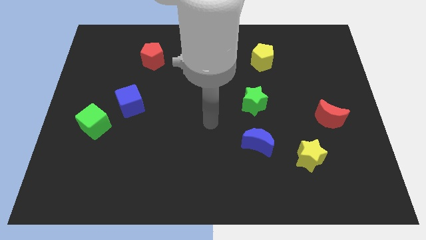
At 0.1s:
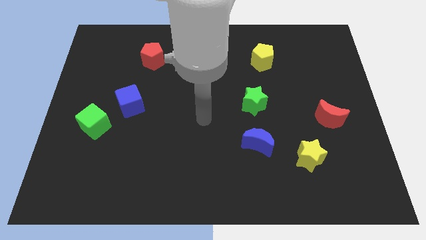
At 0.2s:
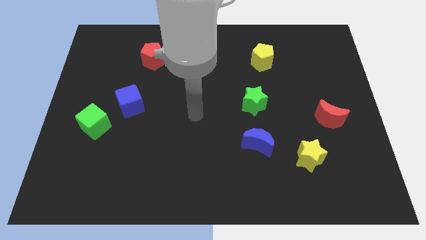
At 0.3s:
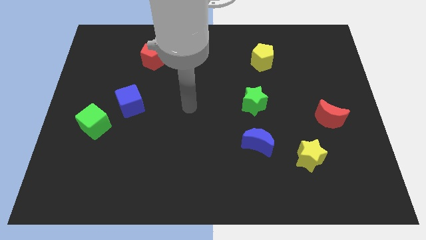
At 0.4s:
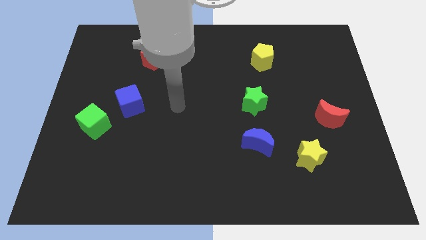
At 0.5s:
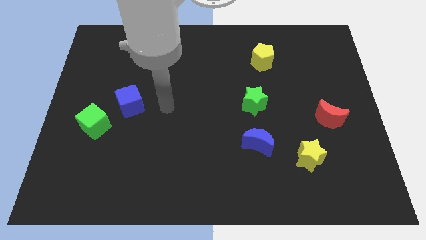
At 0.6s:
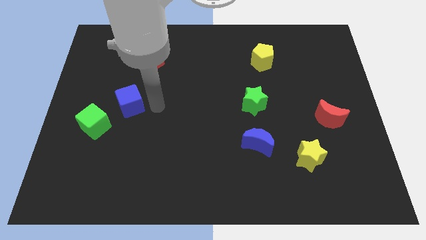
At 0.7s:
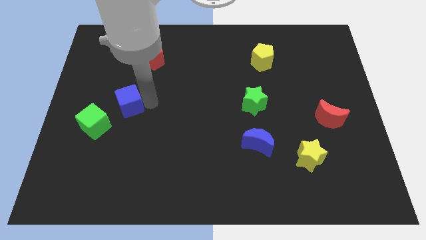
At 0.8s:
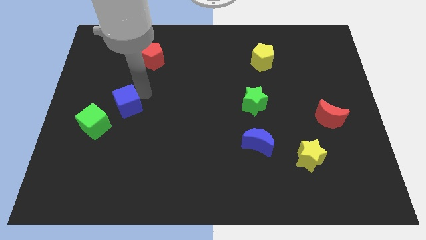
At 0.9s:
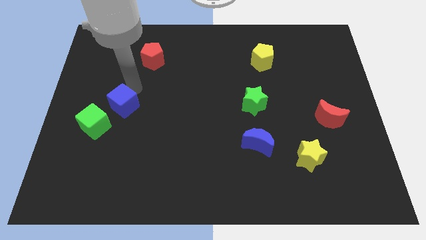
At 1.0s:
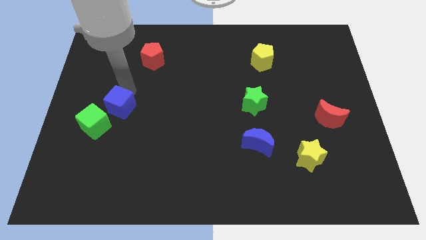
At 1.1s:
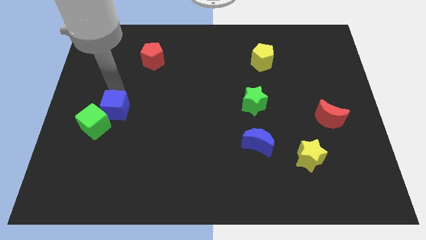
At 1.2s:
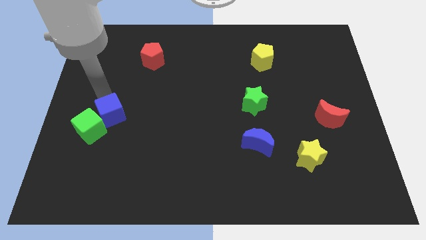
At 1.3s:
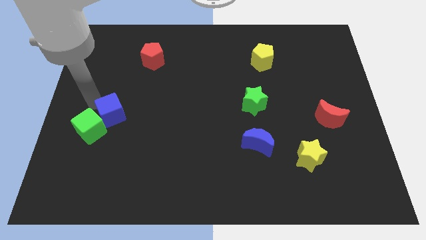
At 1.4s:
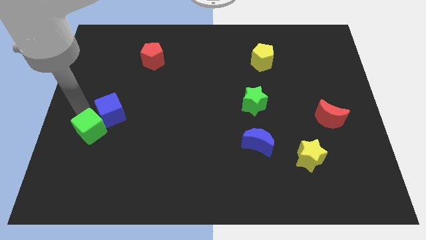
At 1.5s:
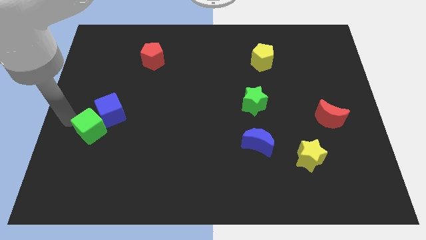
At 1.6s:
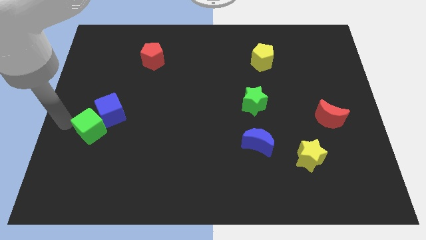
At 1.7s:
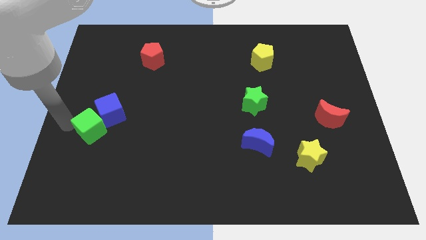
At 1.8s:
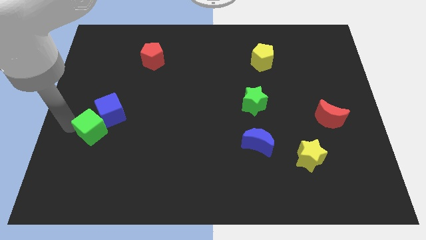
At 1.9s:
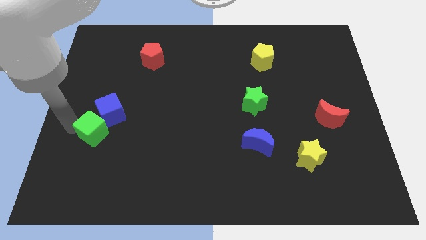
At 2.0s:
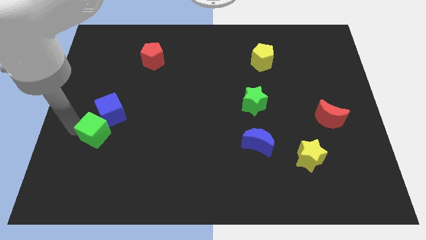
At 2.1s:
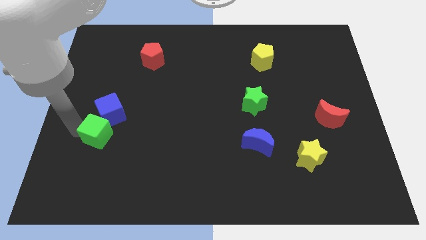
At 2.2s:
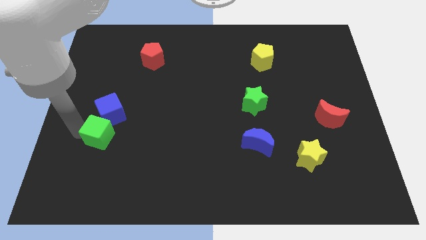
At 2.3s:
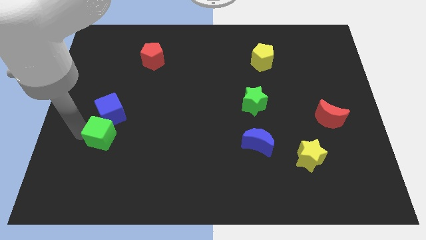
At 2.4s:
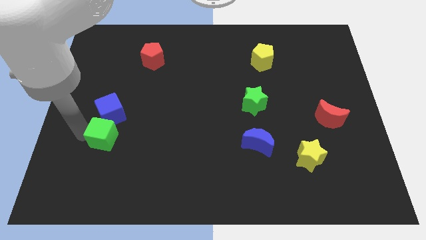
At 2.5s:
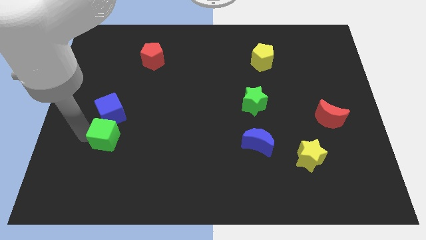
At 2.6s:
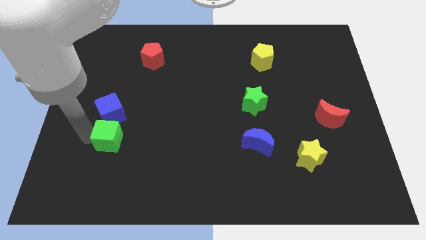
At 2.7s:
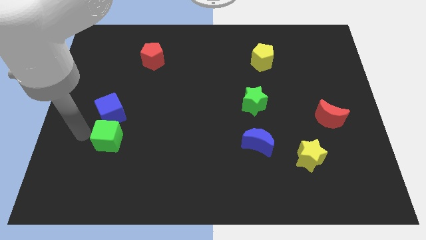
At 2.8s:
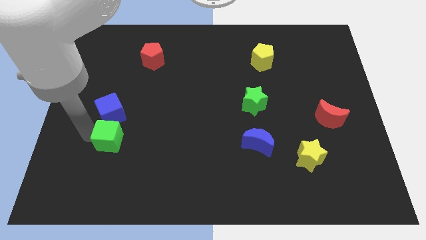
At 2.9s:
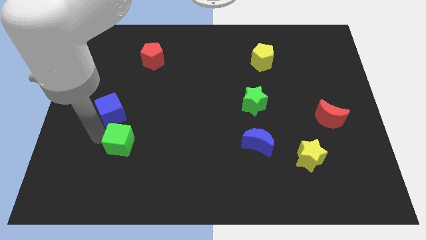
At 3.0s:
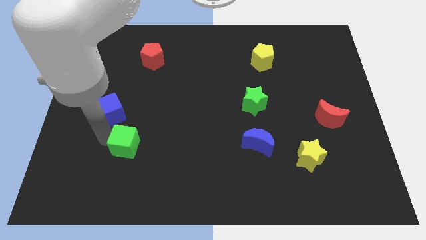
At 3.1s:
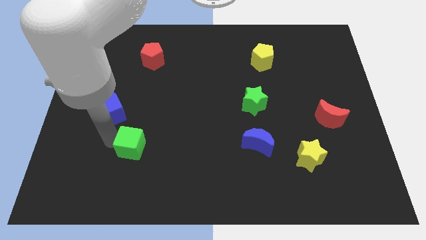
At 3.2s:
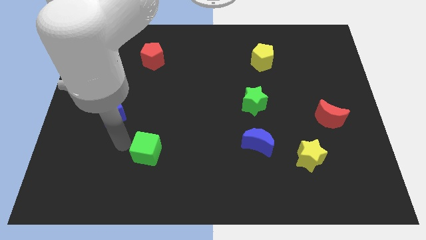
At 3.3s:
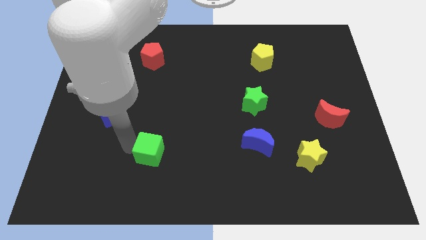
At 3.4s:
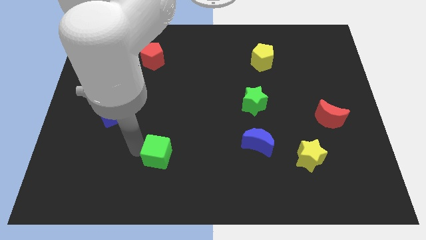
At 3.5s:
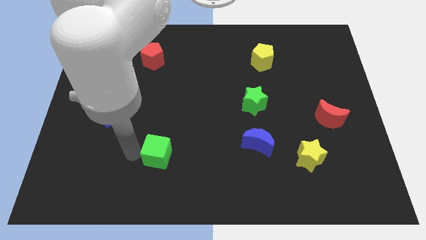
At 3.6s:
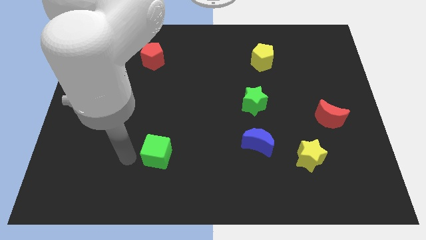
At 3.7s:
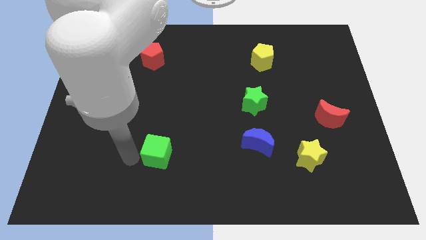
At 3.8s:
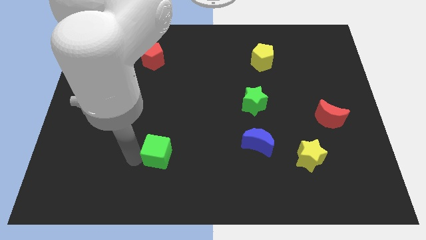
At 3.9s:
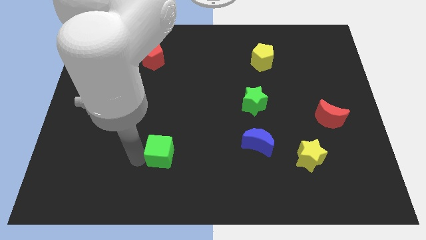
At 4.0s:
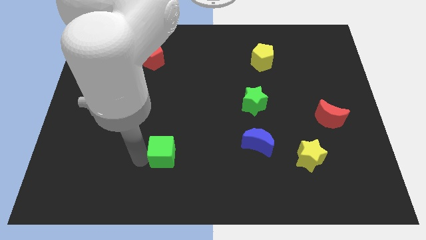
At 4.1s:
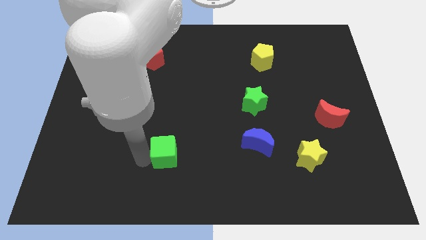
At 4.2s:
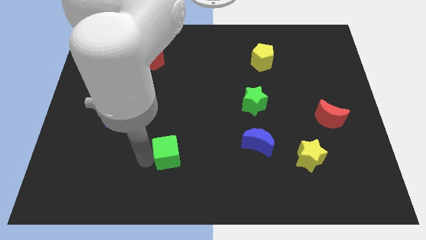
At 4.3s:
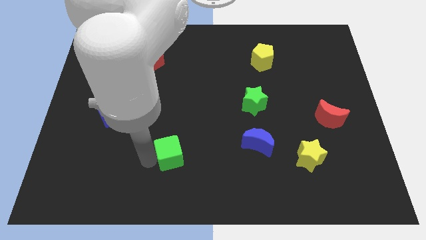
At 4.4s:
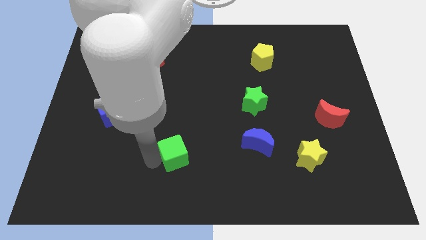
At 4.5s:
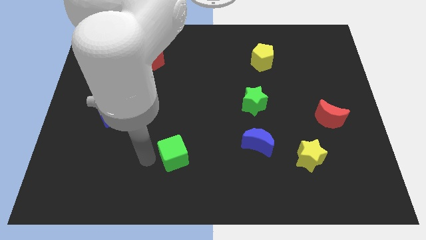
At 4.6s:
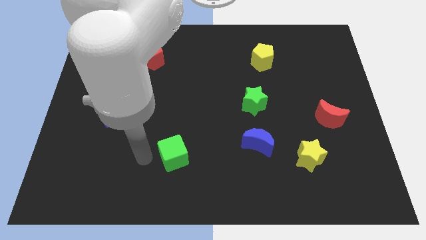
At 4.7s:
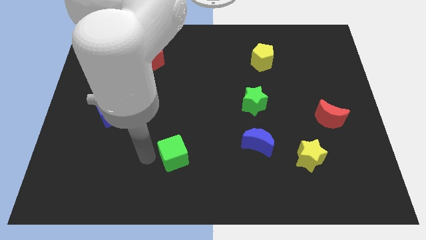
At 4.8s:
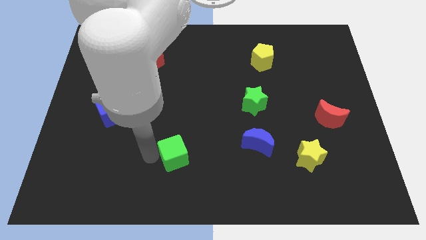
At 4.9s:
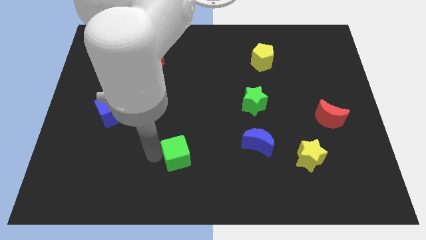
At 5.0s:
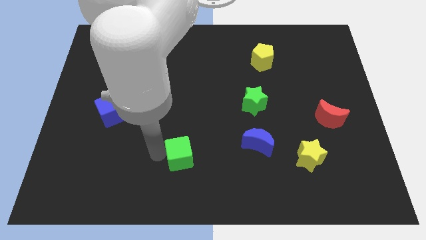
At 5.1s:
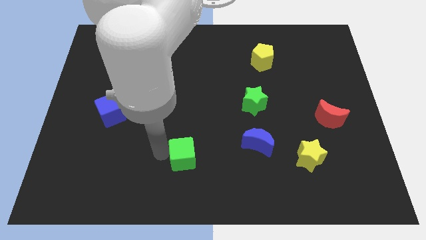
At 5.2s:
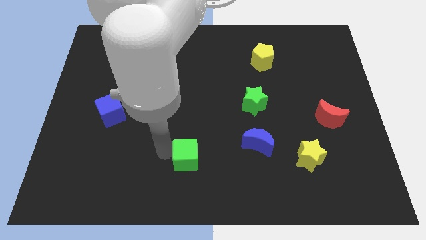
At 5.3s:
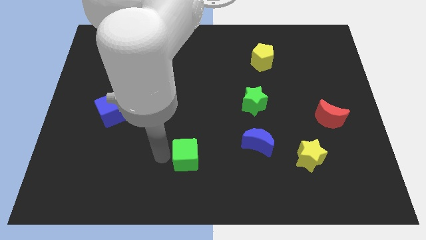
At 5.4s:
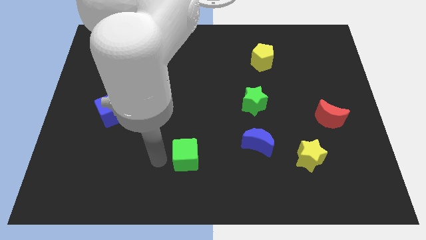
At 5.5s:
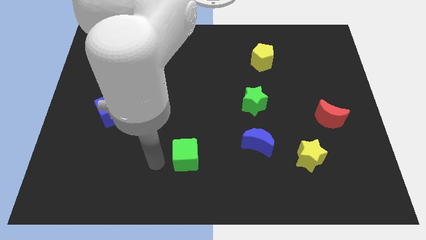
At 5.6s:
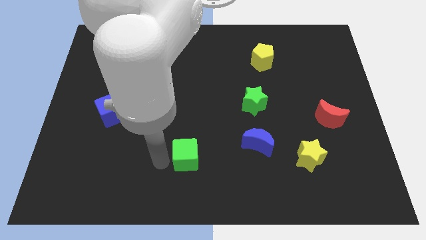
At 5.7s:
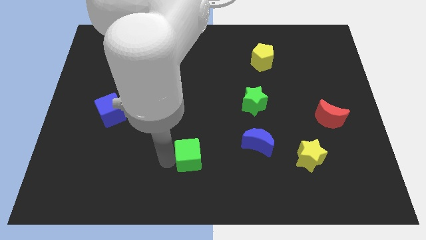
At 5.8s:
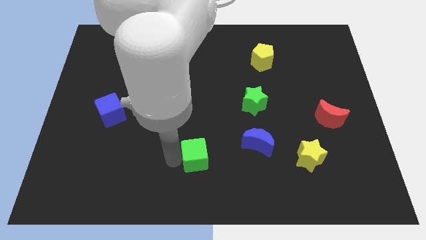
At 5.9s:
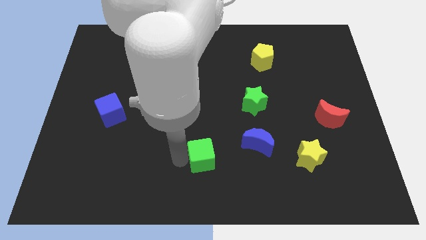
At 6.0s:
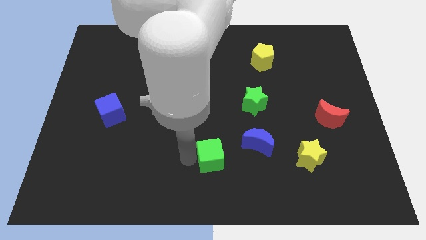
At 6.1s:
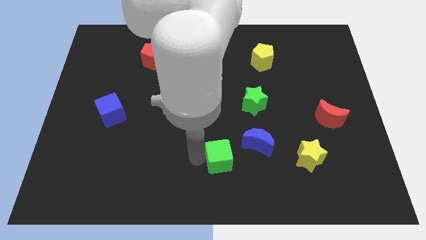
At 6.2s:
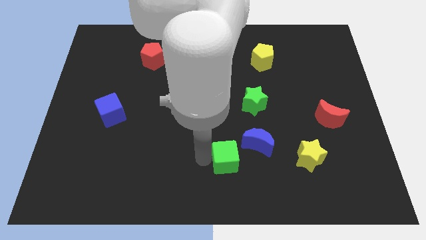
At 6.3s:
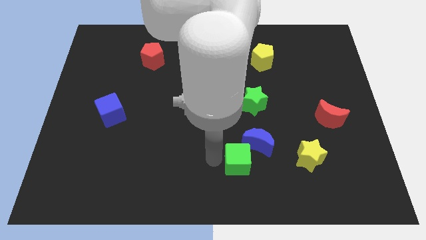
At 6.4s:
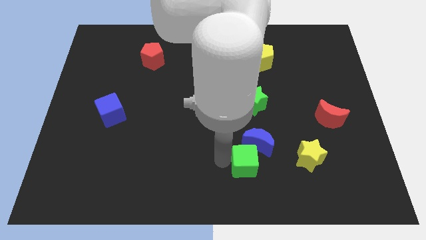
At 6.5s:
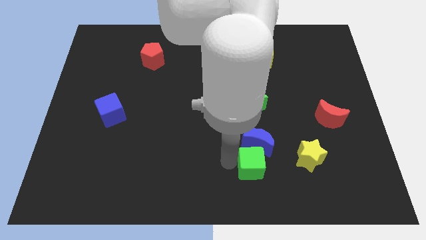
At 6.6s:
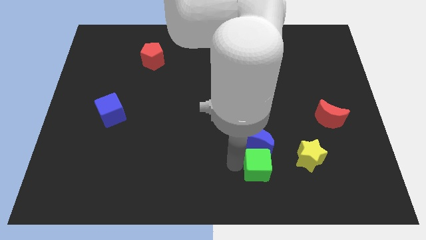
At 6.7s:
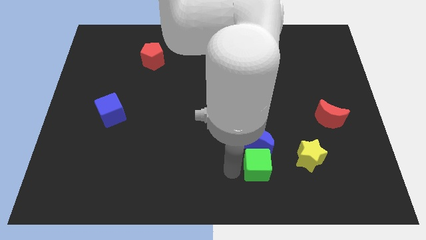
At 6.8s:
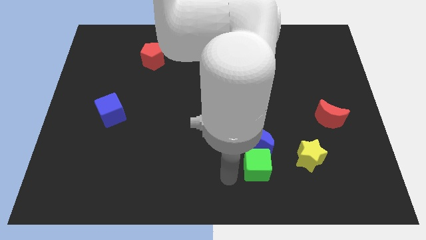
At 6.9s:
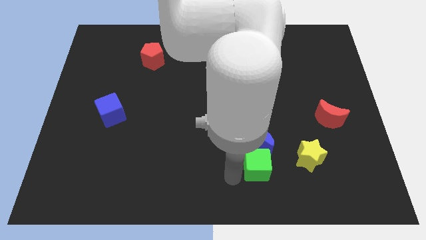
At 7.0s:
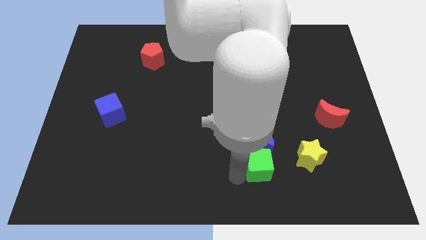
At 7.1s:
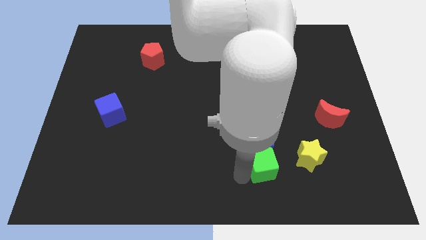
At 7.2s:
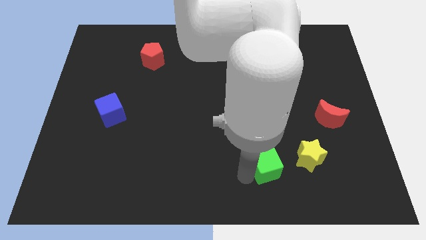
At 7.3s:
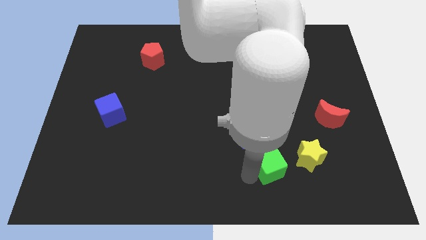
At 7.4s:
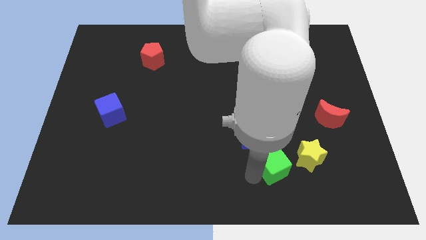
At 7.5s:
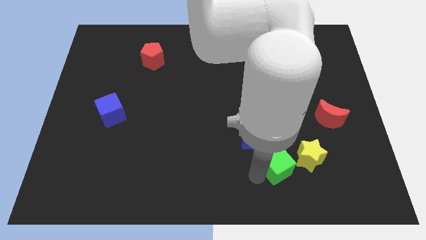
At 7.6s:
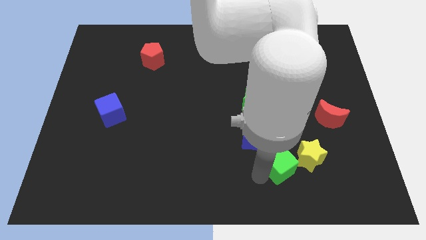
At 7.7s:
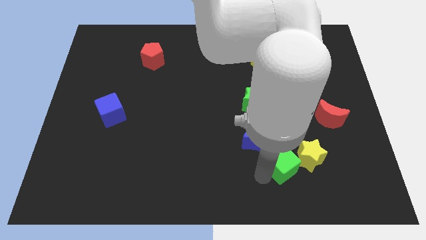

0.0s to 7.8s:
push the green cube next to the yellow star

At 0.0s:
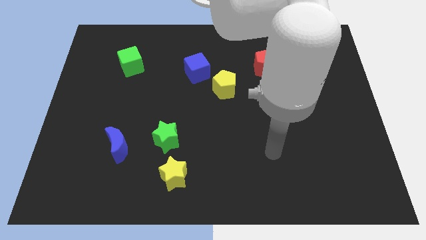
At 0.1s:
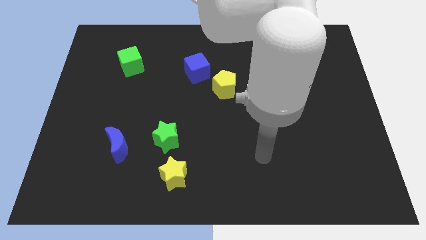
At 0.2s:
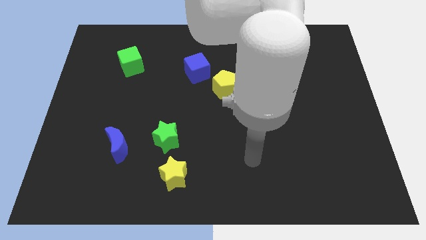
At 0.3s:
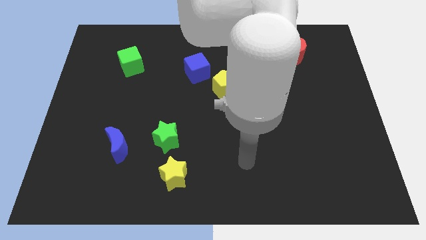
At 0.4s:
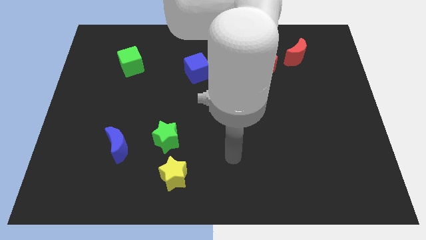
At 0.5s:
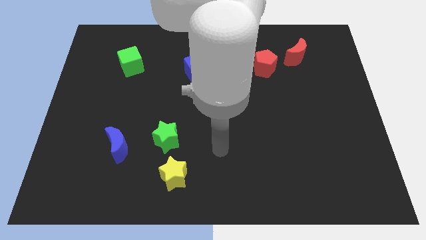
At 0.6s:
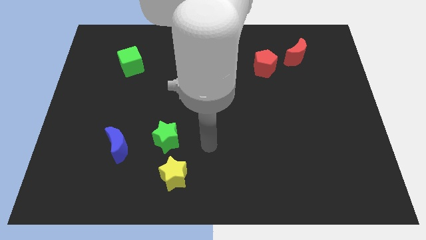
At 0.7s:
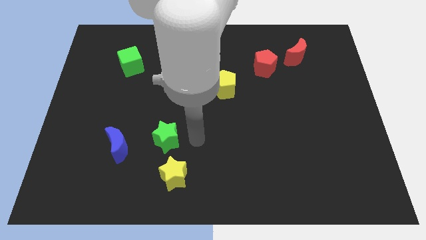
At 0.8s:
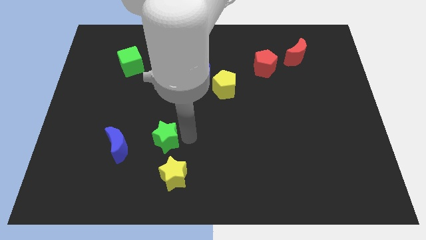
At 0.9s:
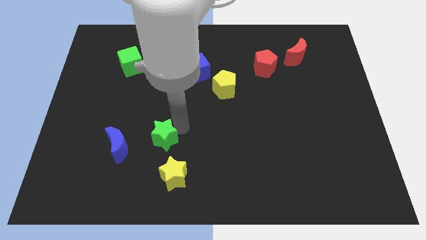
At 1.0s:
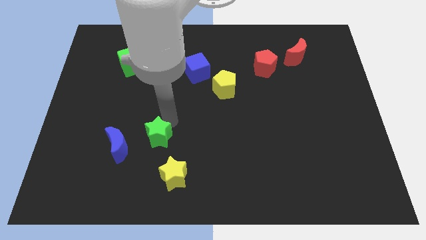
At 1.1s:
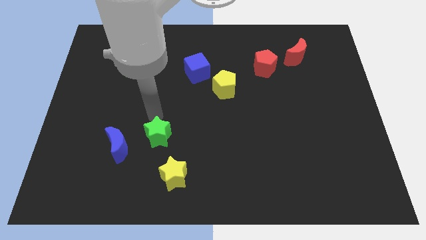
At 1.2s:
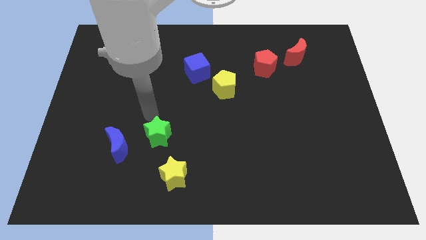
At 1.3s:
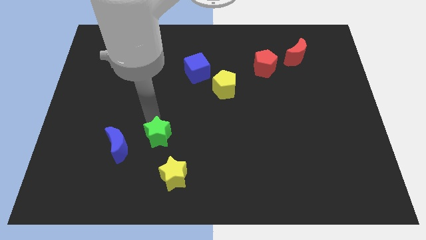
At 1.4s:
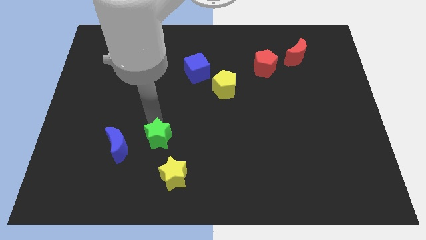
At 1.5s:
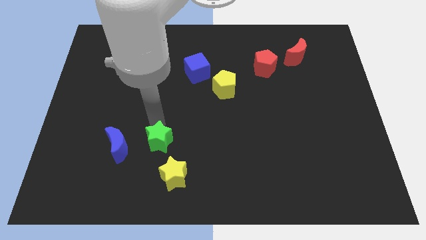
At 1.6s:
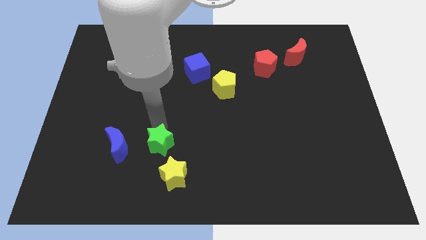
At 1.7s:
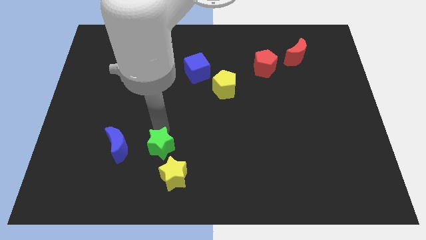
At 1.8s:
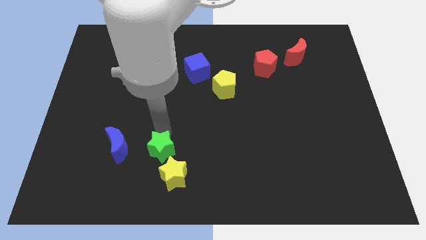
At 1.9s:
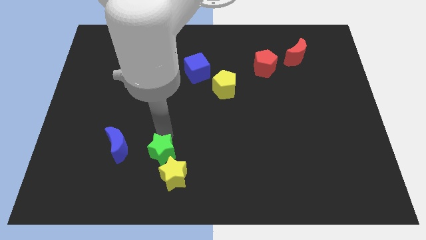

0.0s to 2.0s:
push the green star close to the yellow star
